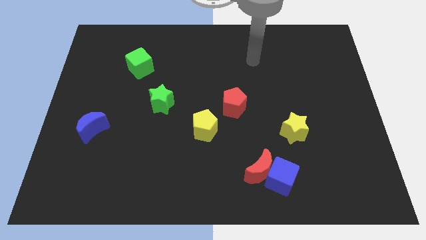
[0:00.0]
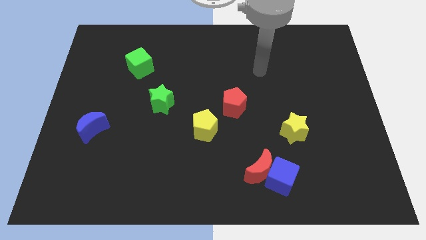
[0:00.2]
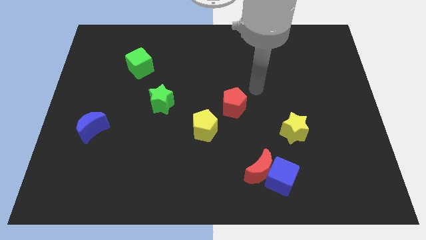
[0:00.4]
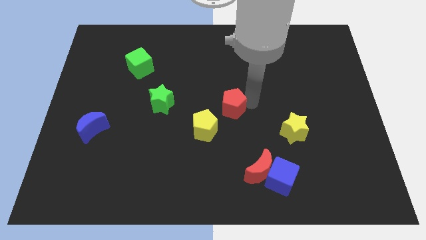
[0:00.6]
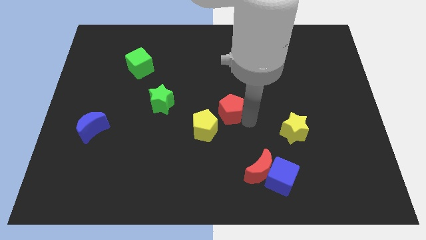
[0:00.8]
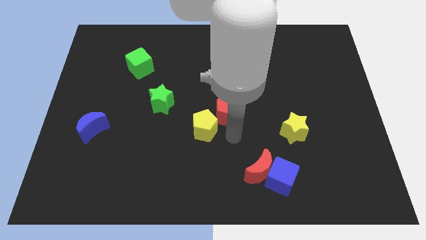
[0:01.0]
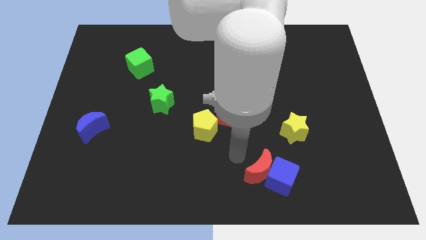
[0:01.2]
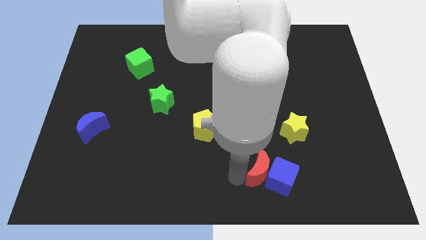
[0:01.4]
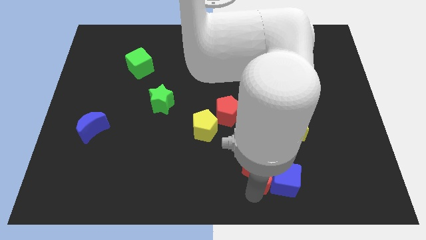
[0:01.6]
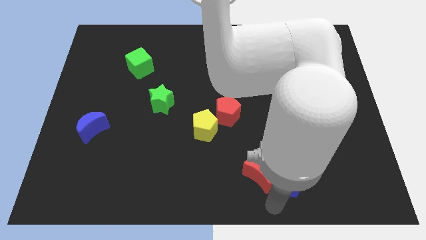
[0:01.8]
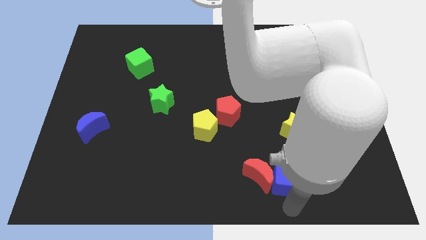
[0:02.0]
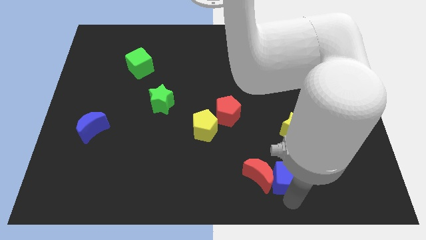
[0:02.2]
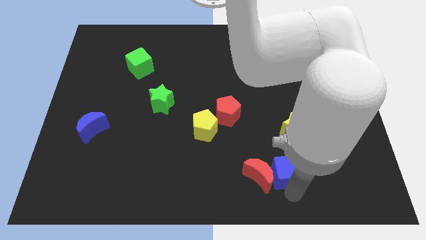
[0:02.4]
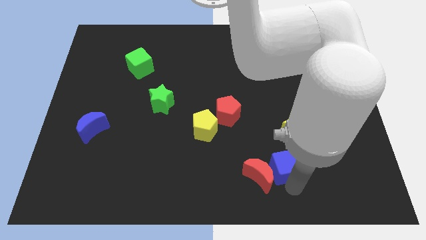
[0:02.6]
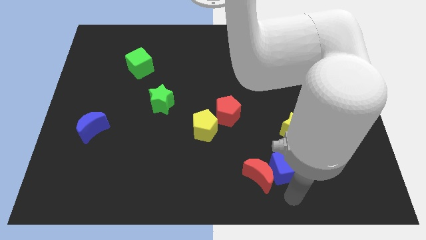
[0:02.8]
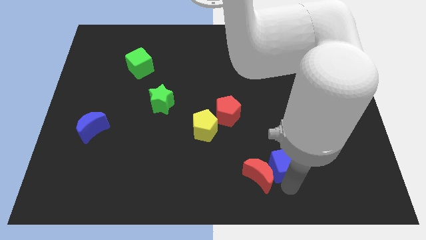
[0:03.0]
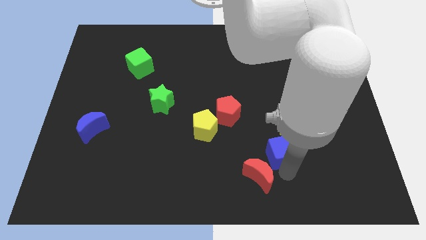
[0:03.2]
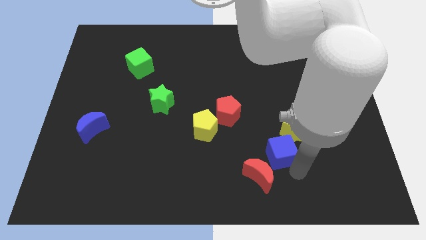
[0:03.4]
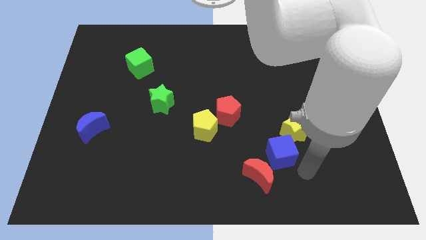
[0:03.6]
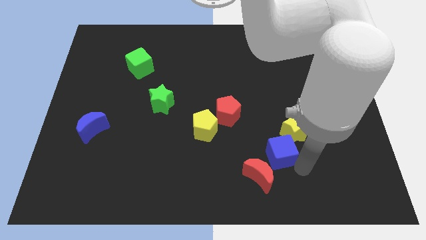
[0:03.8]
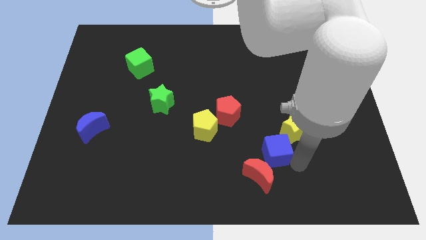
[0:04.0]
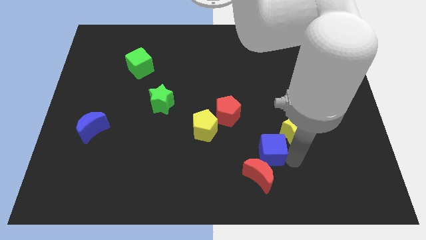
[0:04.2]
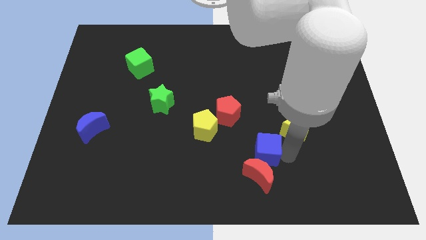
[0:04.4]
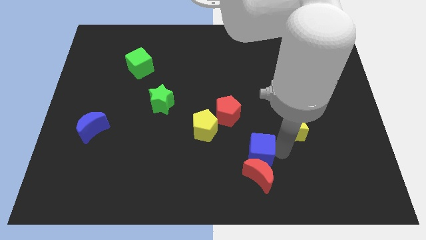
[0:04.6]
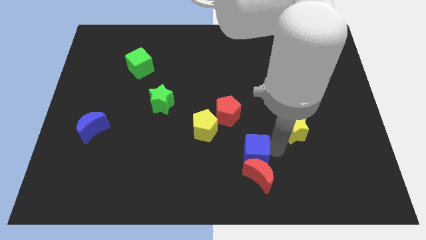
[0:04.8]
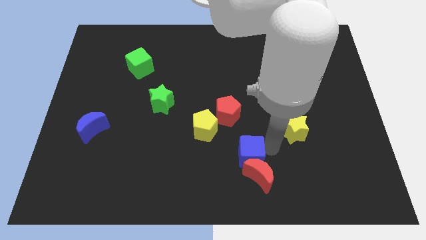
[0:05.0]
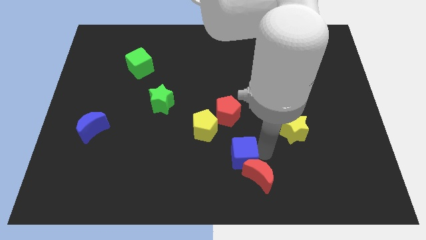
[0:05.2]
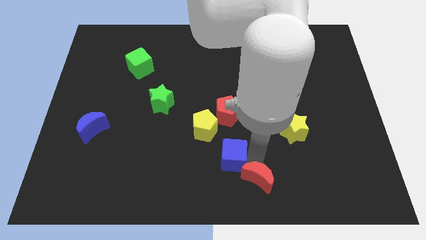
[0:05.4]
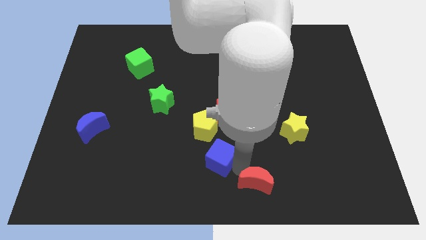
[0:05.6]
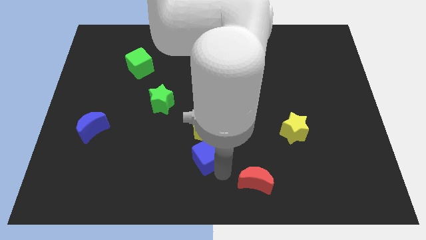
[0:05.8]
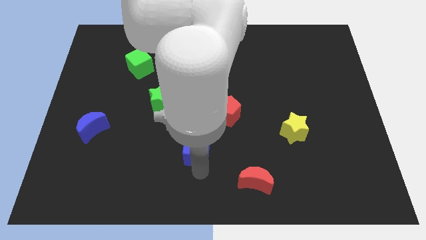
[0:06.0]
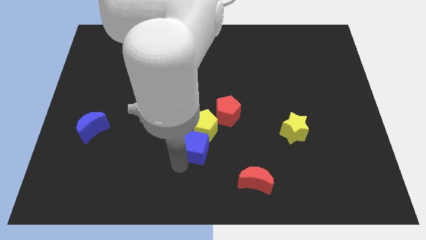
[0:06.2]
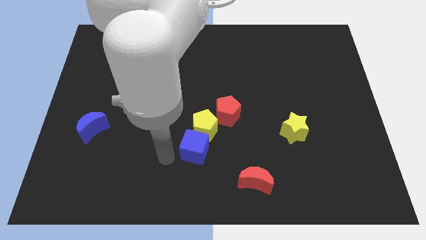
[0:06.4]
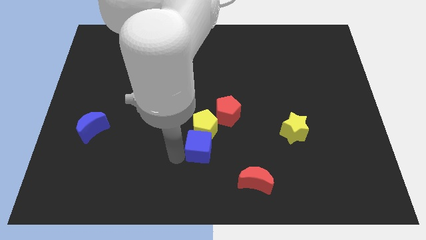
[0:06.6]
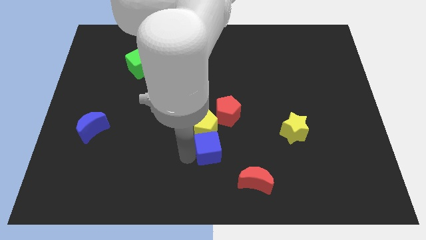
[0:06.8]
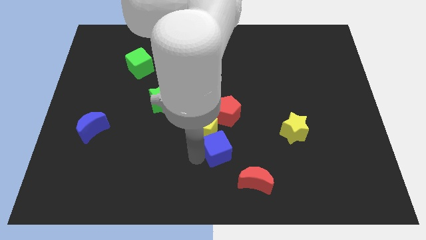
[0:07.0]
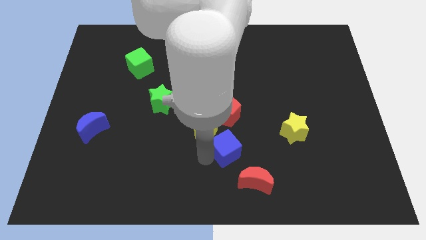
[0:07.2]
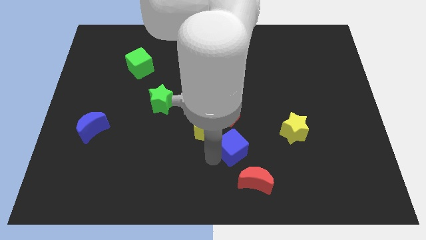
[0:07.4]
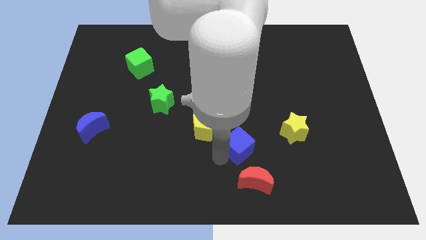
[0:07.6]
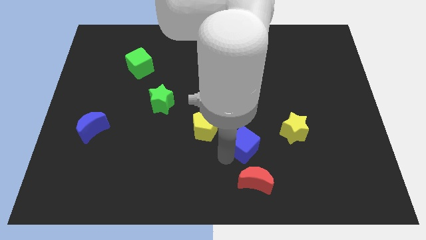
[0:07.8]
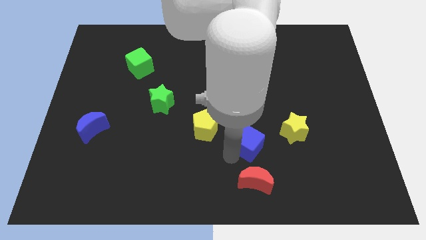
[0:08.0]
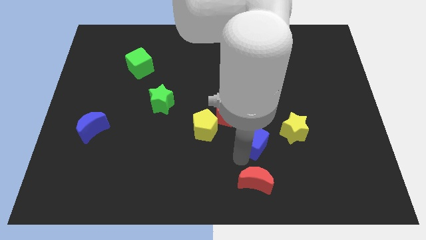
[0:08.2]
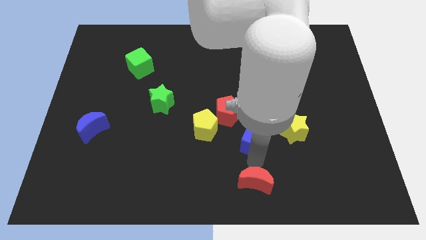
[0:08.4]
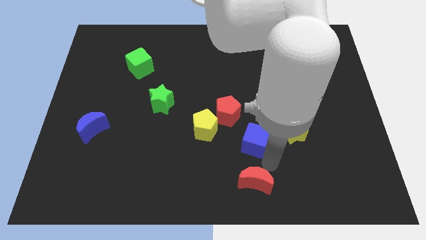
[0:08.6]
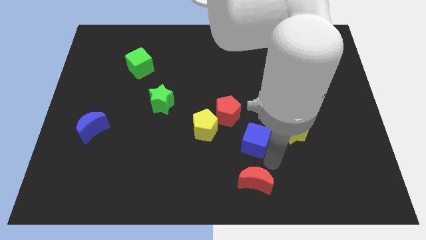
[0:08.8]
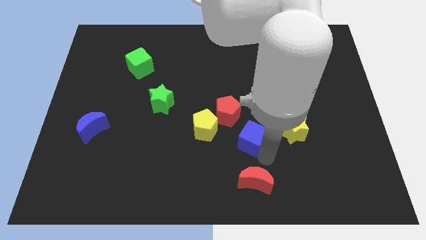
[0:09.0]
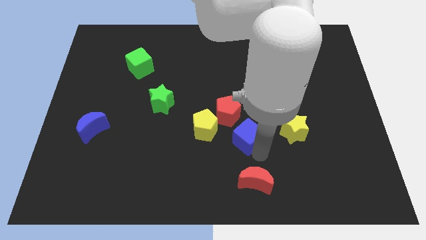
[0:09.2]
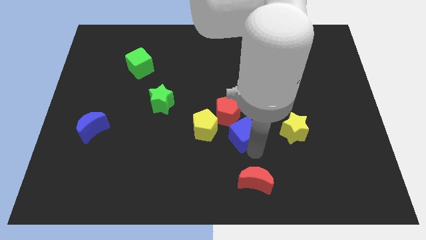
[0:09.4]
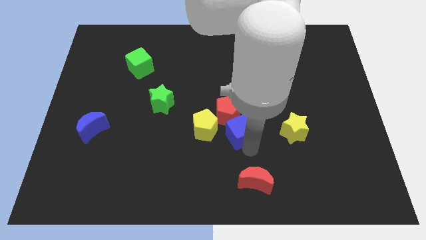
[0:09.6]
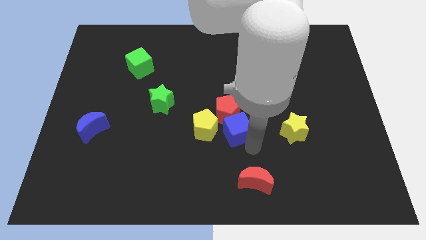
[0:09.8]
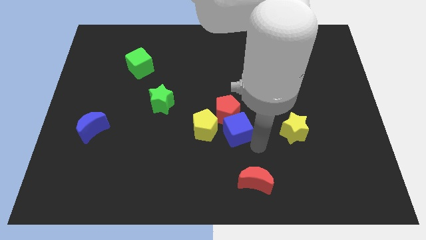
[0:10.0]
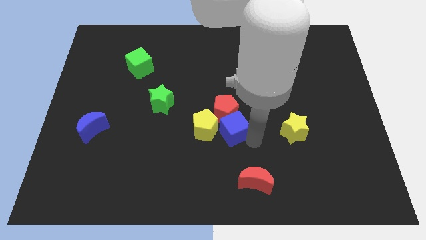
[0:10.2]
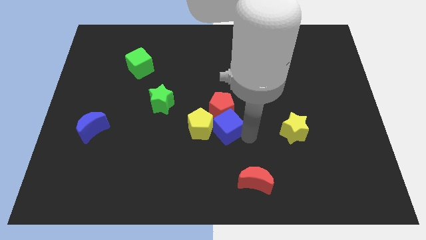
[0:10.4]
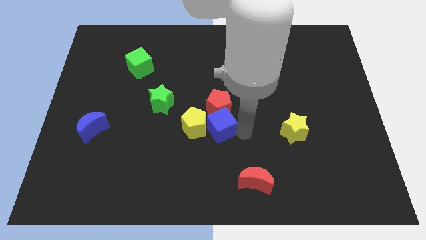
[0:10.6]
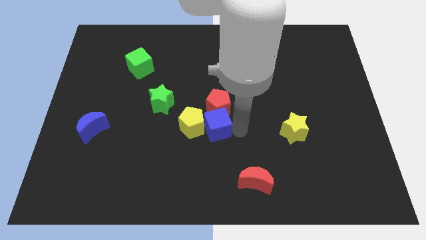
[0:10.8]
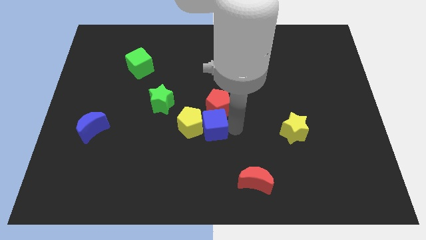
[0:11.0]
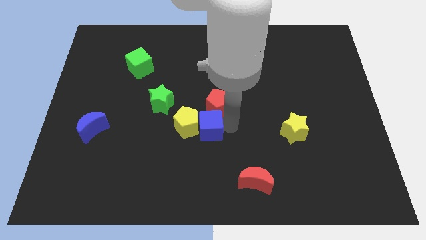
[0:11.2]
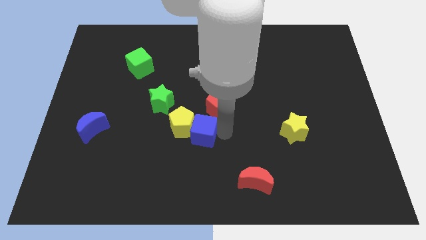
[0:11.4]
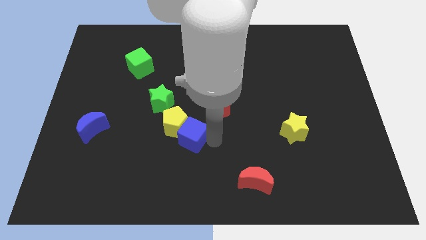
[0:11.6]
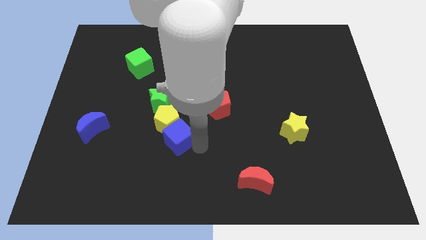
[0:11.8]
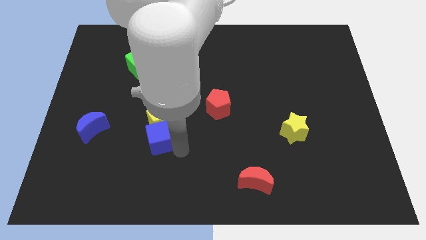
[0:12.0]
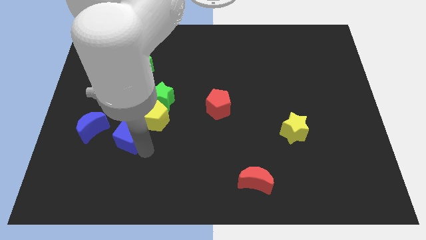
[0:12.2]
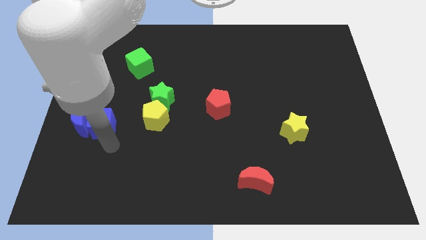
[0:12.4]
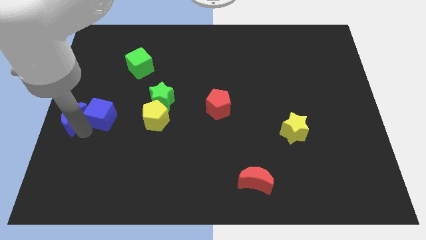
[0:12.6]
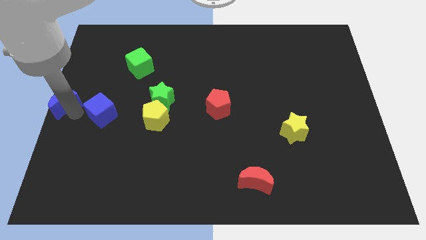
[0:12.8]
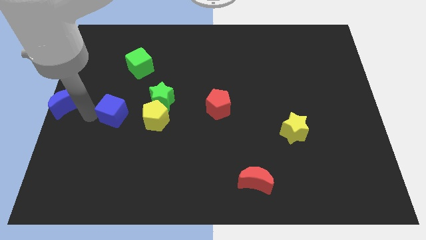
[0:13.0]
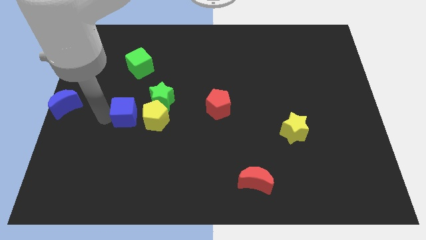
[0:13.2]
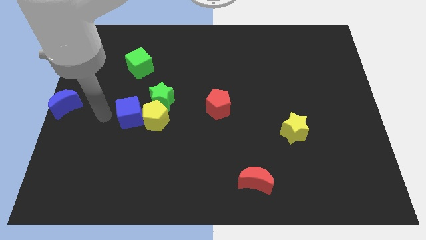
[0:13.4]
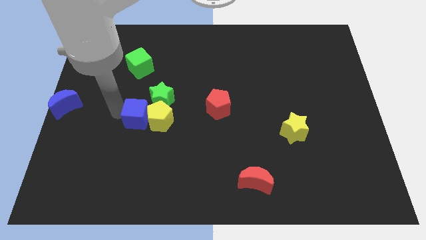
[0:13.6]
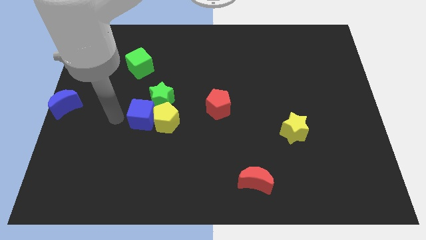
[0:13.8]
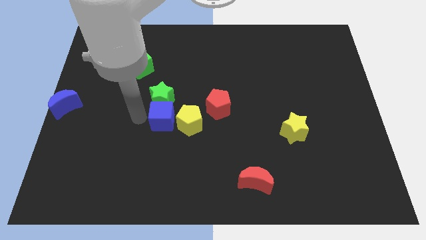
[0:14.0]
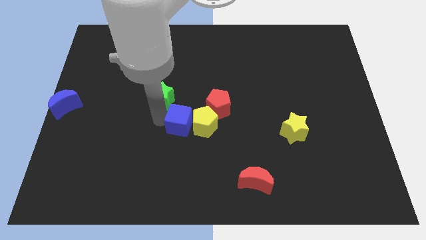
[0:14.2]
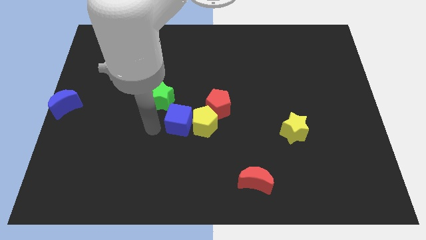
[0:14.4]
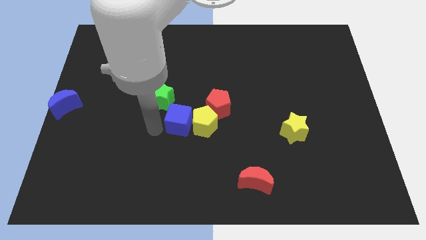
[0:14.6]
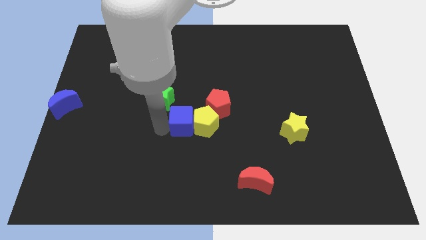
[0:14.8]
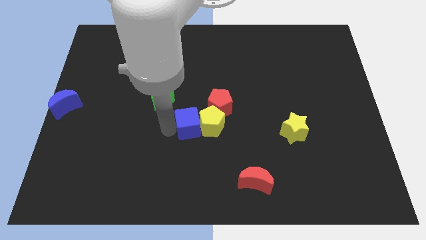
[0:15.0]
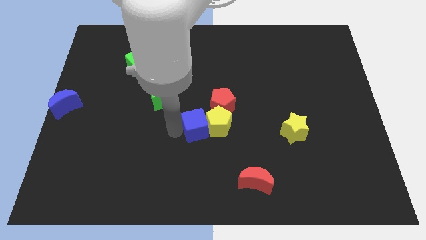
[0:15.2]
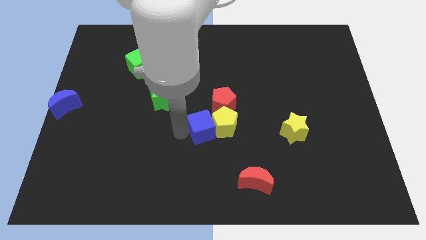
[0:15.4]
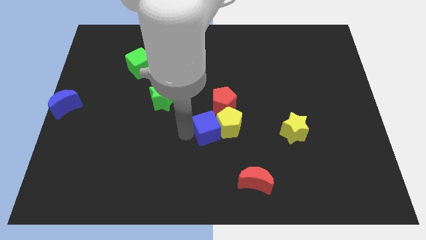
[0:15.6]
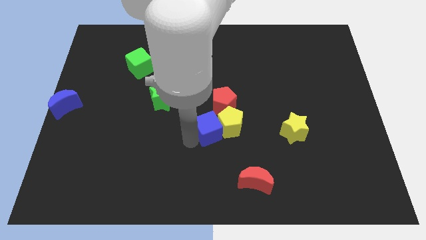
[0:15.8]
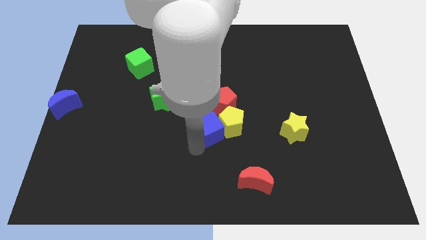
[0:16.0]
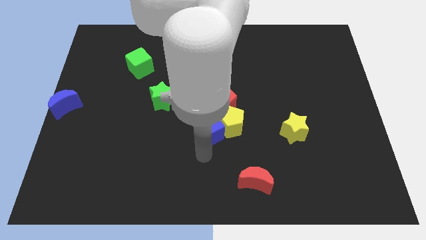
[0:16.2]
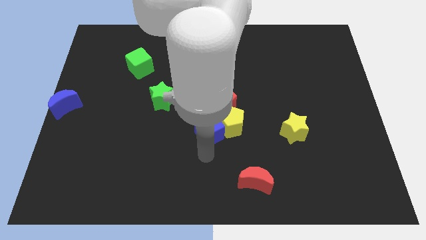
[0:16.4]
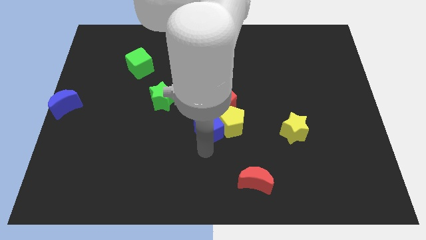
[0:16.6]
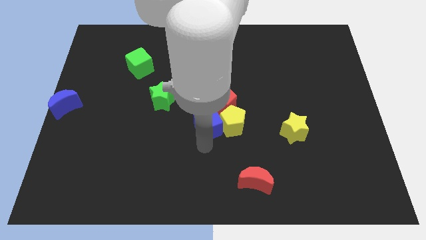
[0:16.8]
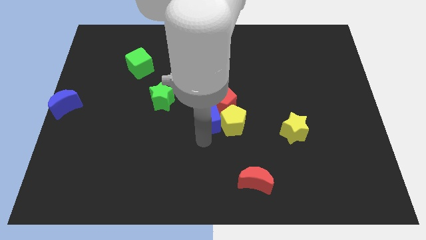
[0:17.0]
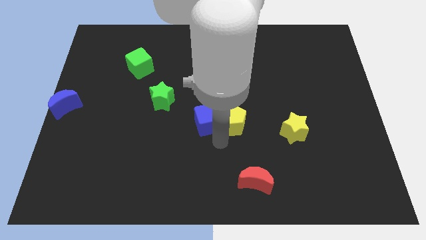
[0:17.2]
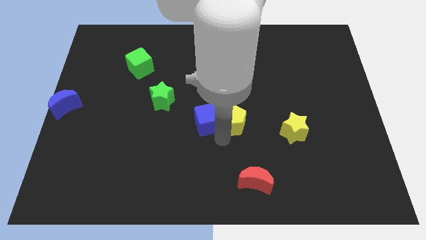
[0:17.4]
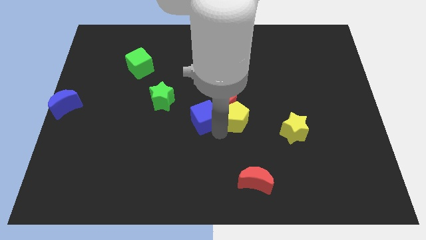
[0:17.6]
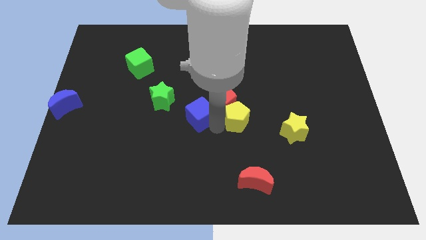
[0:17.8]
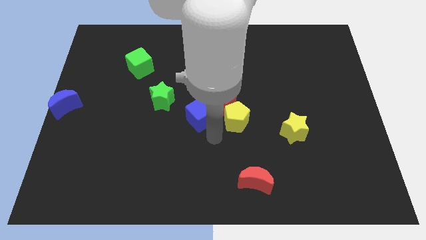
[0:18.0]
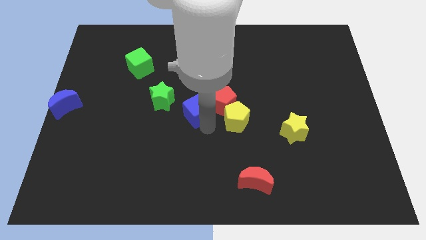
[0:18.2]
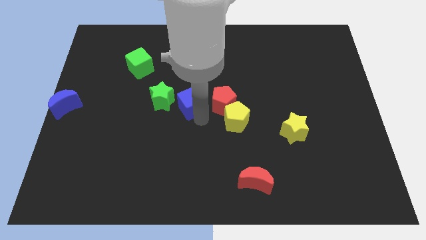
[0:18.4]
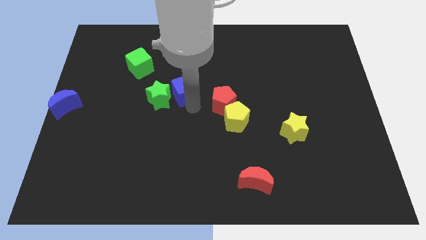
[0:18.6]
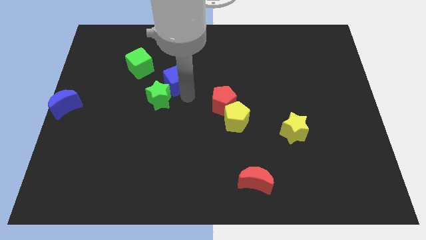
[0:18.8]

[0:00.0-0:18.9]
move the blue cube to the top side of the green star
